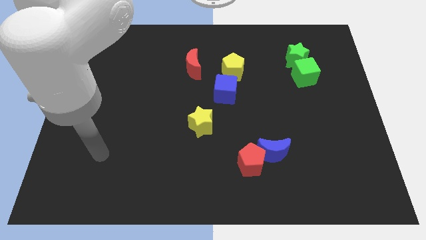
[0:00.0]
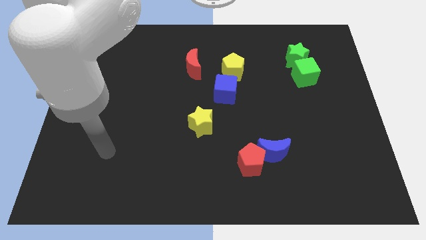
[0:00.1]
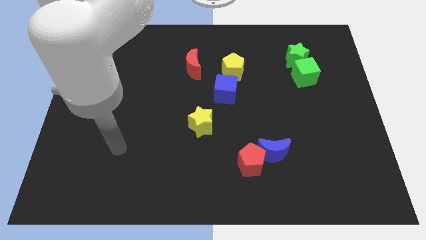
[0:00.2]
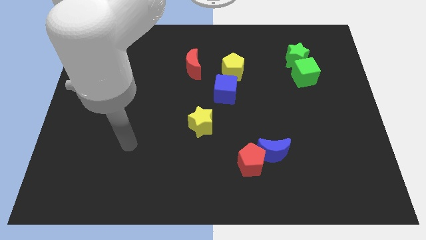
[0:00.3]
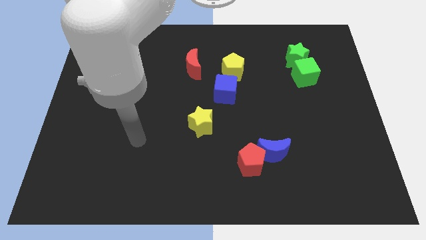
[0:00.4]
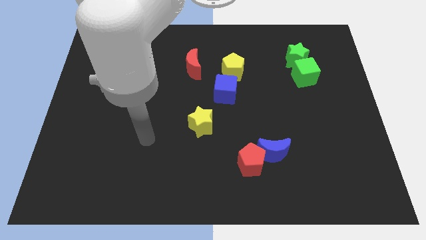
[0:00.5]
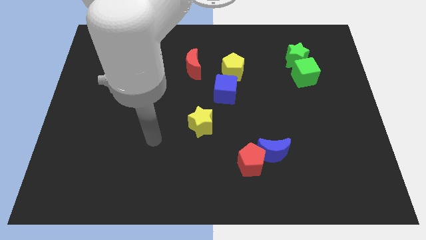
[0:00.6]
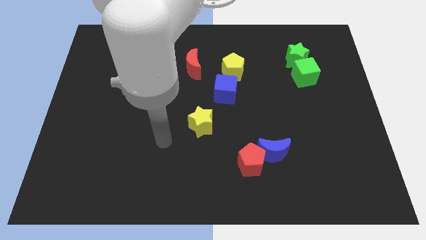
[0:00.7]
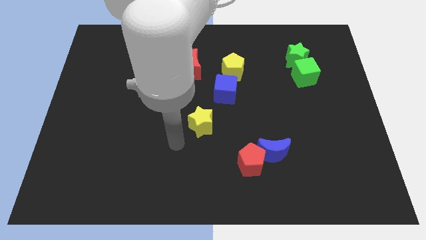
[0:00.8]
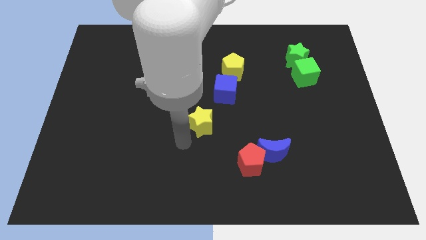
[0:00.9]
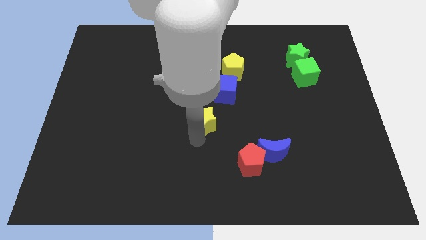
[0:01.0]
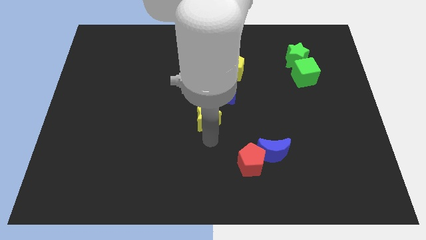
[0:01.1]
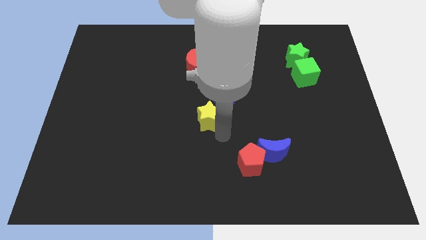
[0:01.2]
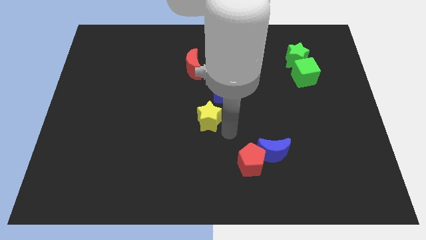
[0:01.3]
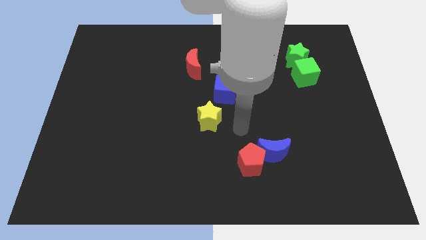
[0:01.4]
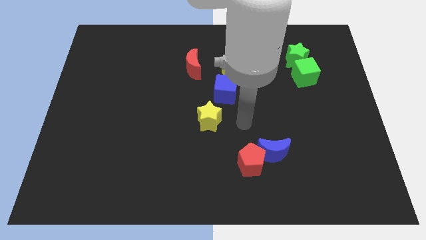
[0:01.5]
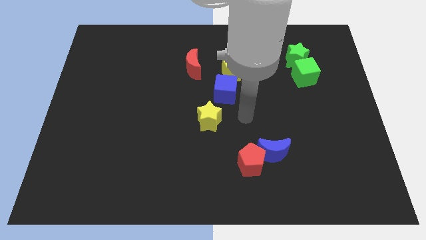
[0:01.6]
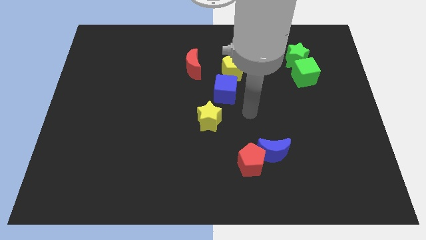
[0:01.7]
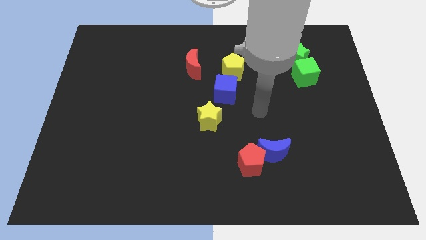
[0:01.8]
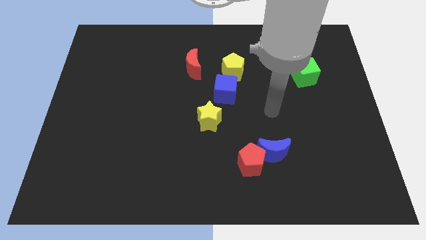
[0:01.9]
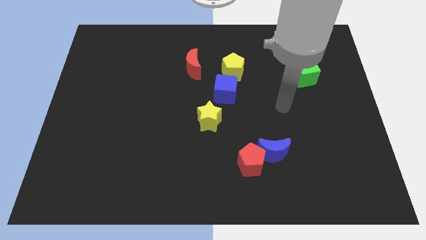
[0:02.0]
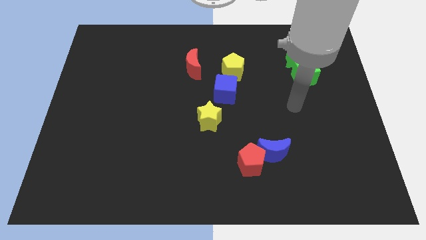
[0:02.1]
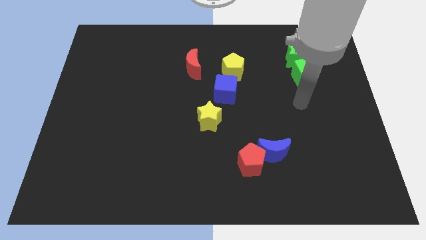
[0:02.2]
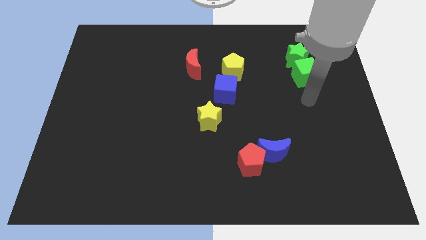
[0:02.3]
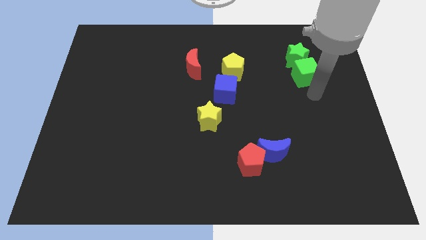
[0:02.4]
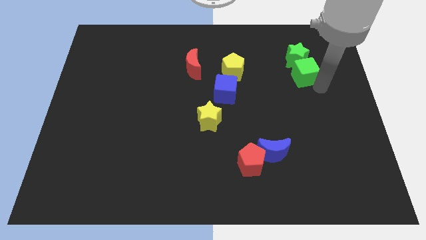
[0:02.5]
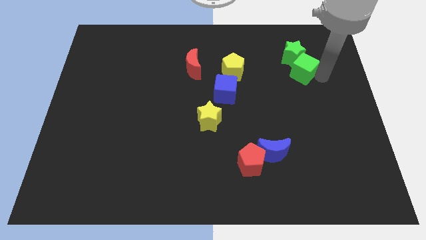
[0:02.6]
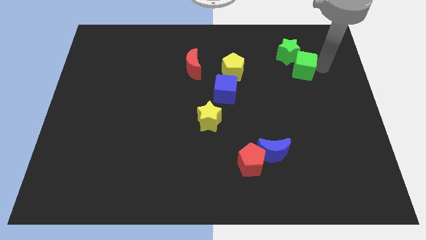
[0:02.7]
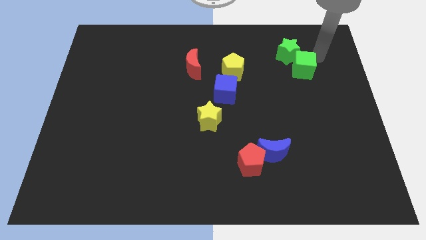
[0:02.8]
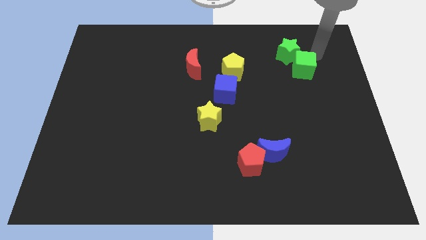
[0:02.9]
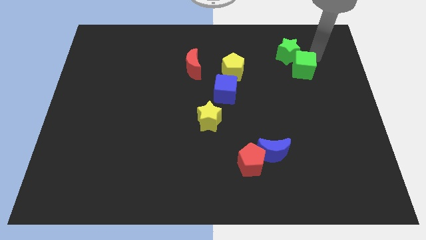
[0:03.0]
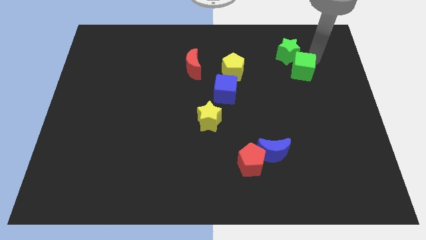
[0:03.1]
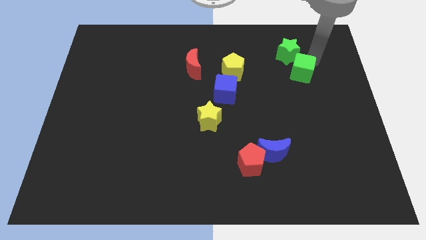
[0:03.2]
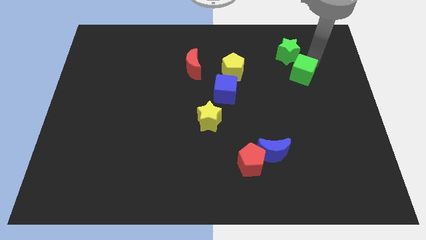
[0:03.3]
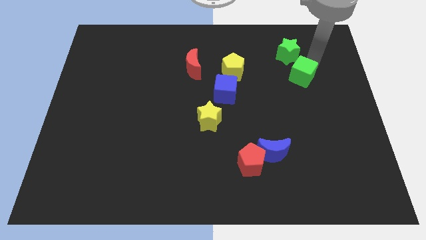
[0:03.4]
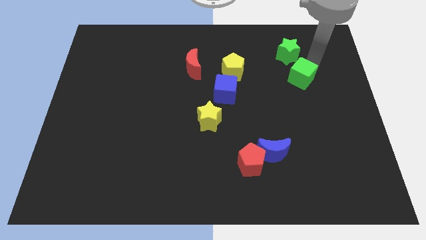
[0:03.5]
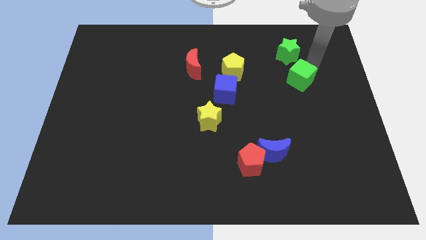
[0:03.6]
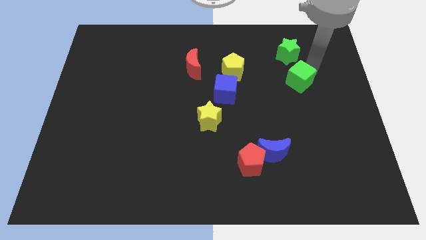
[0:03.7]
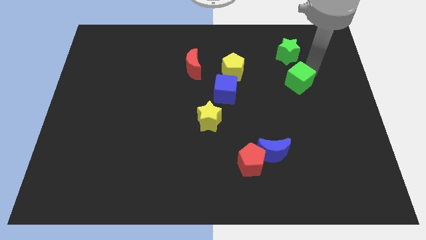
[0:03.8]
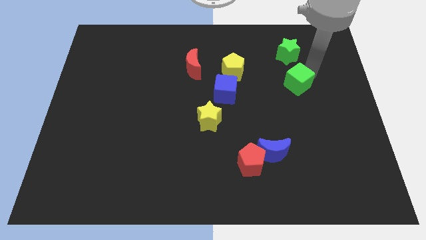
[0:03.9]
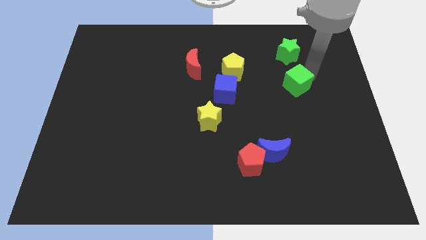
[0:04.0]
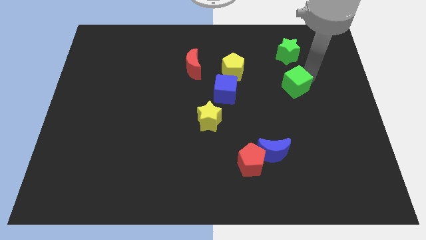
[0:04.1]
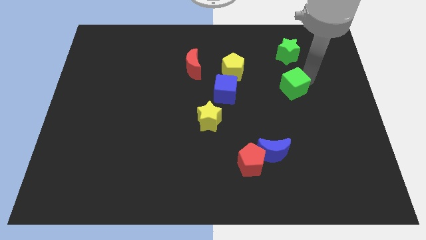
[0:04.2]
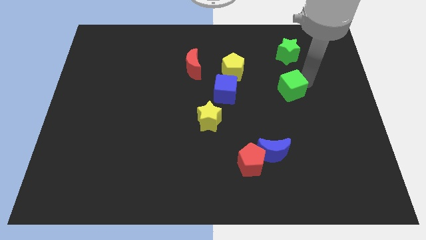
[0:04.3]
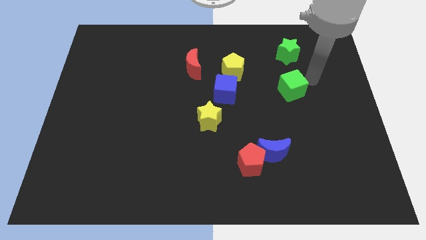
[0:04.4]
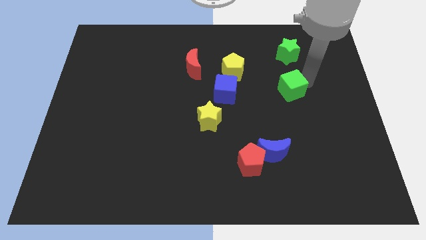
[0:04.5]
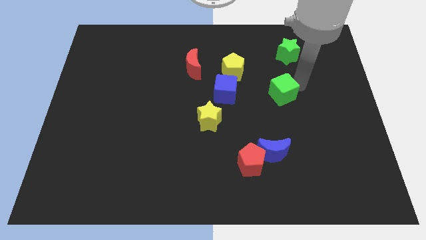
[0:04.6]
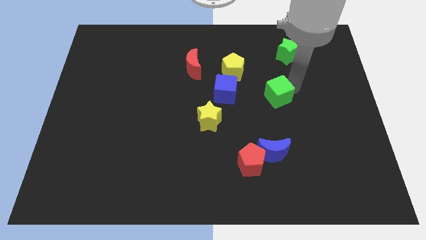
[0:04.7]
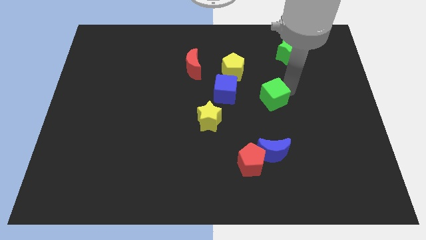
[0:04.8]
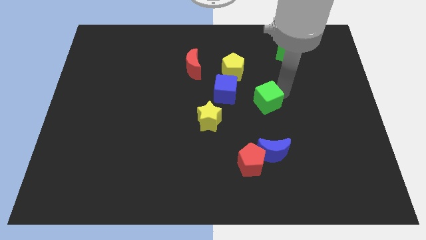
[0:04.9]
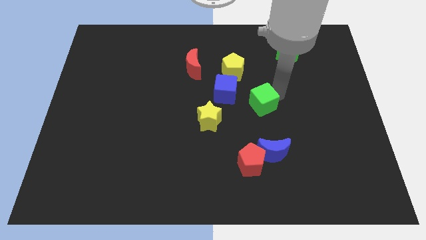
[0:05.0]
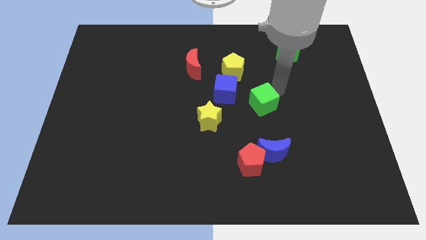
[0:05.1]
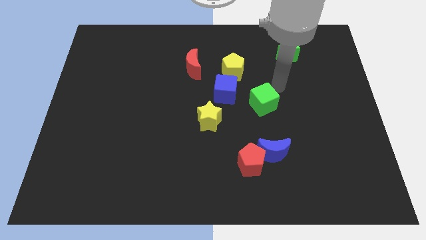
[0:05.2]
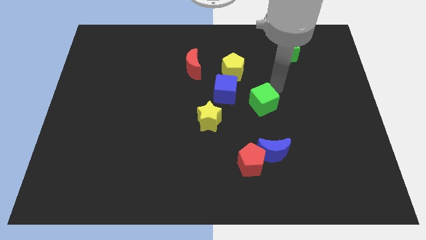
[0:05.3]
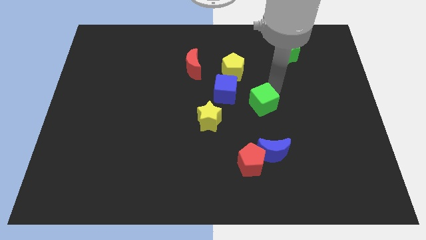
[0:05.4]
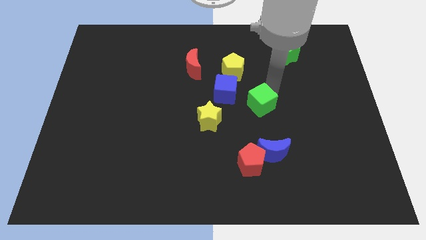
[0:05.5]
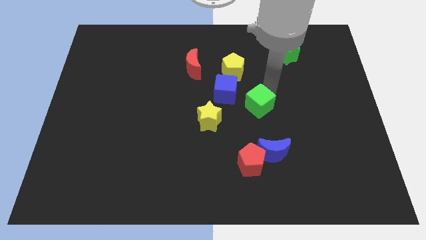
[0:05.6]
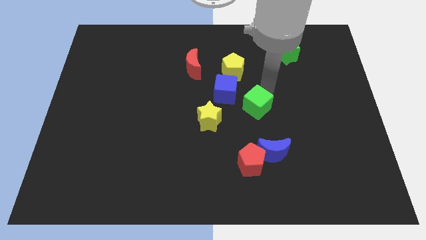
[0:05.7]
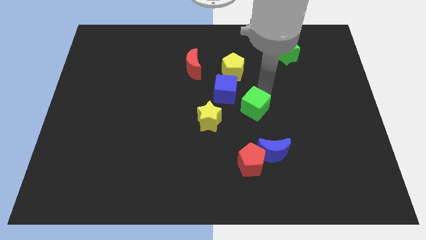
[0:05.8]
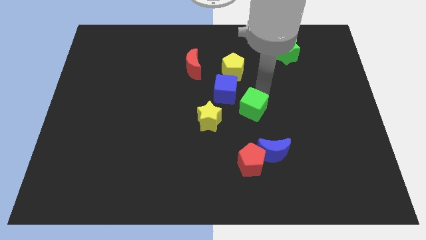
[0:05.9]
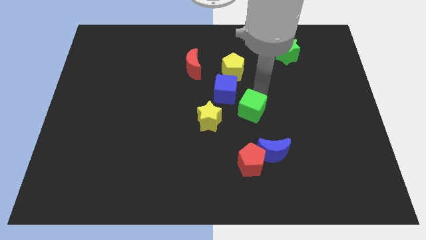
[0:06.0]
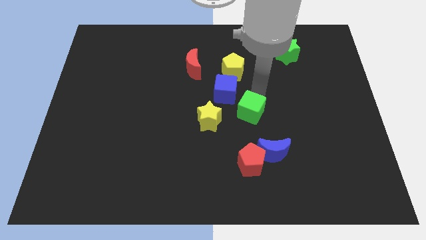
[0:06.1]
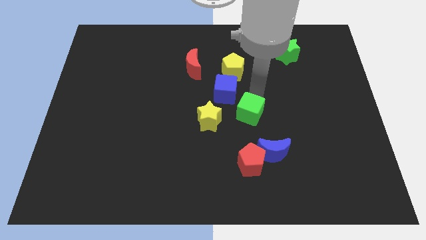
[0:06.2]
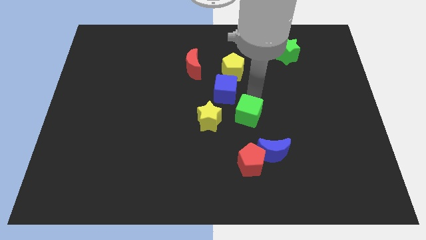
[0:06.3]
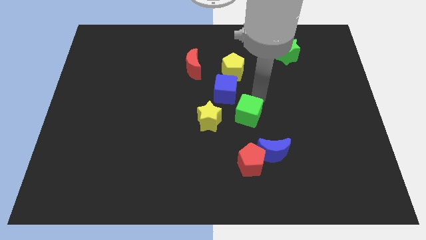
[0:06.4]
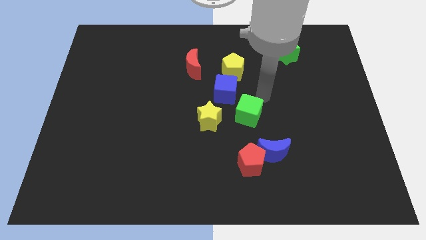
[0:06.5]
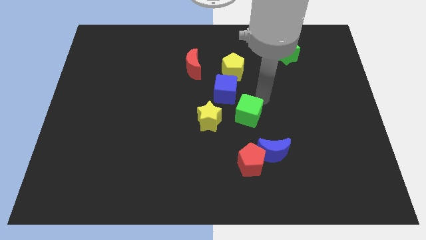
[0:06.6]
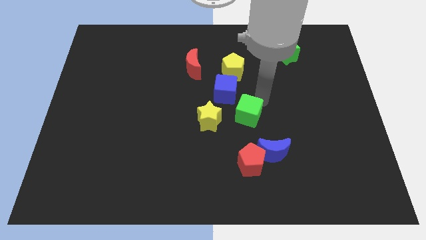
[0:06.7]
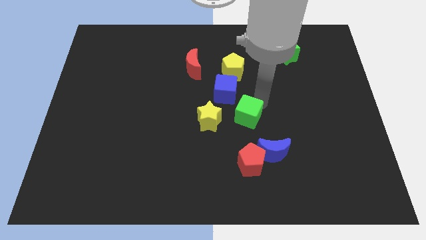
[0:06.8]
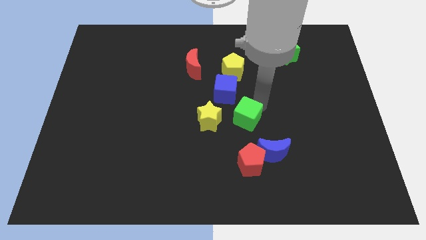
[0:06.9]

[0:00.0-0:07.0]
slide the green cube downwards and left diagonally

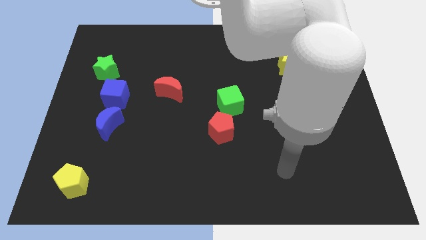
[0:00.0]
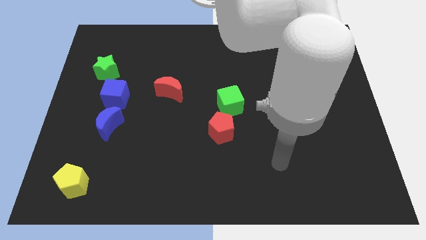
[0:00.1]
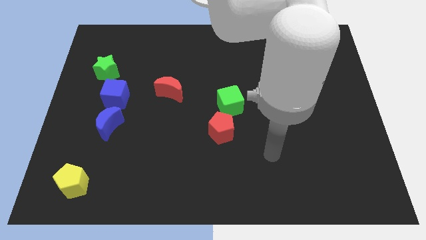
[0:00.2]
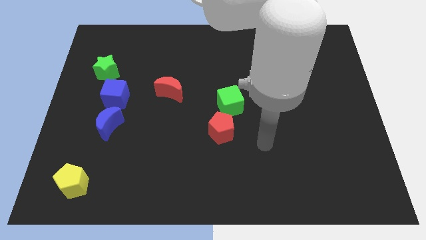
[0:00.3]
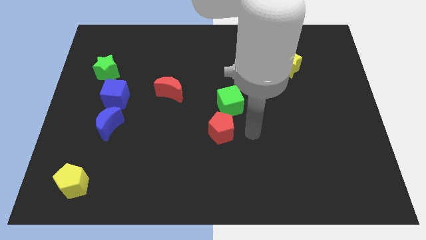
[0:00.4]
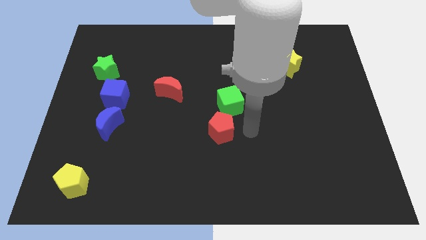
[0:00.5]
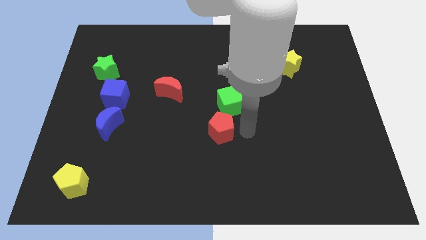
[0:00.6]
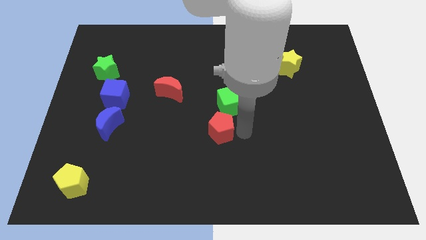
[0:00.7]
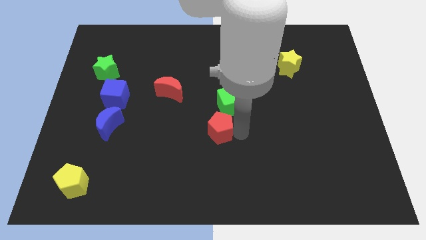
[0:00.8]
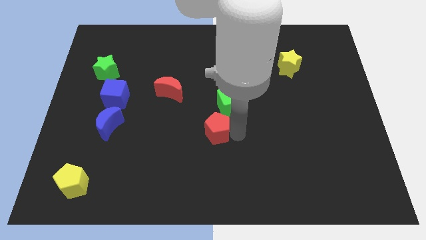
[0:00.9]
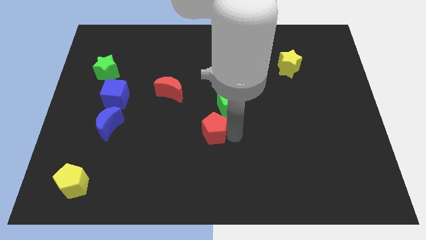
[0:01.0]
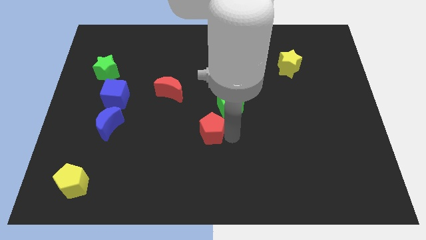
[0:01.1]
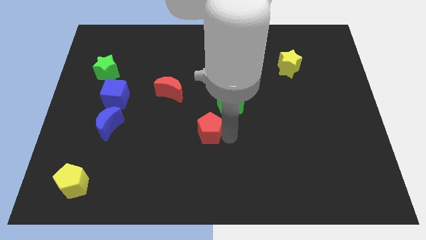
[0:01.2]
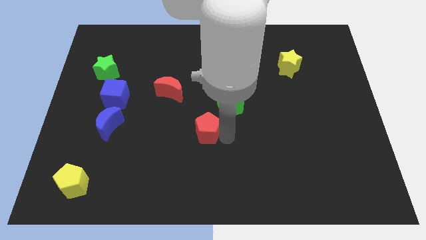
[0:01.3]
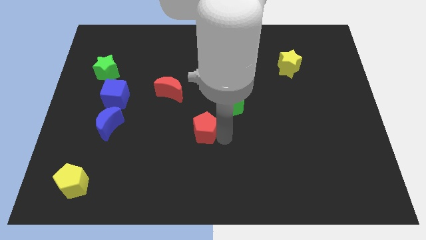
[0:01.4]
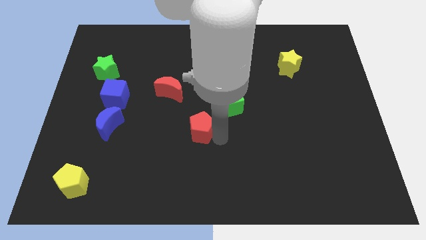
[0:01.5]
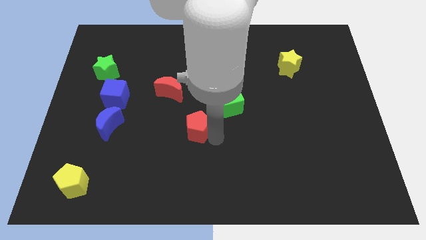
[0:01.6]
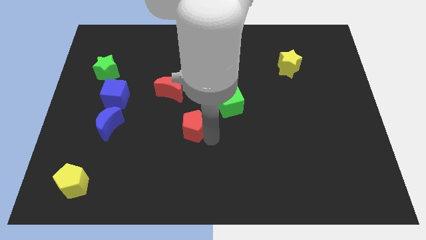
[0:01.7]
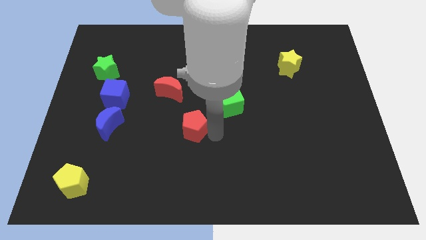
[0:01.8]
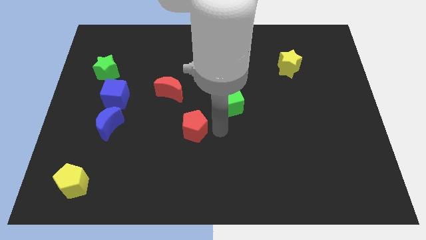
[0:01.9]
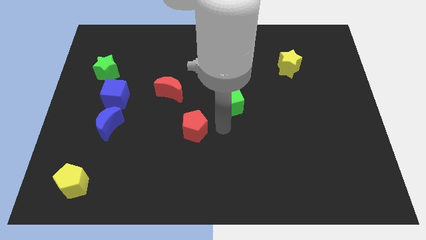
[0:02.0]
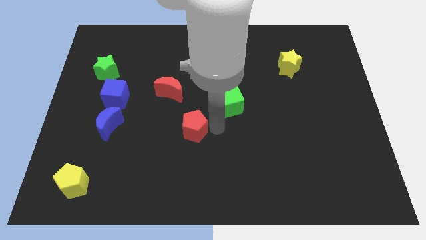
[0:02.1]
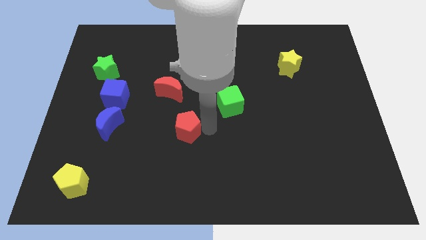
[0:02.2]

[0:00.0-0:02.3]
move the red pentagon left slightly
